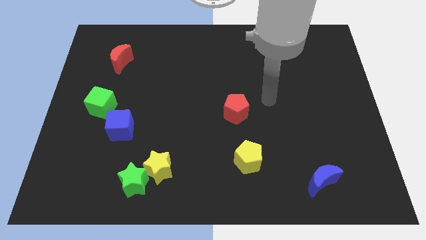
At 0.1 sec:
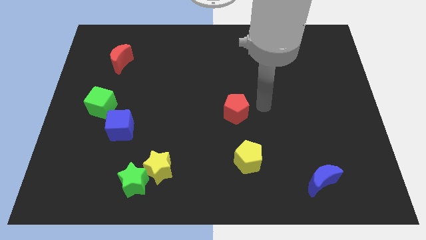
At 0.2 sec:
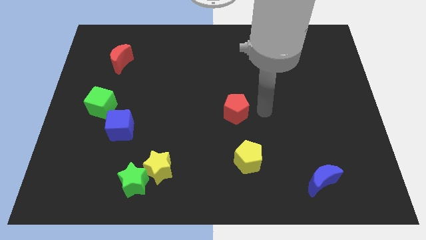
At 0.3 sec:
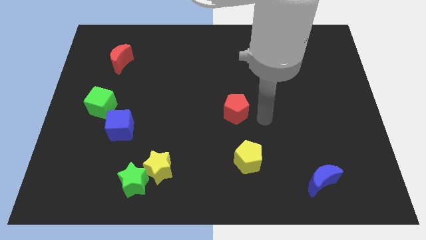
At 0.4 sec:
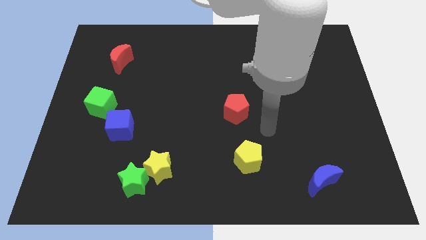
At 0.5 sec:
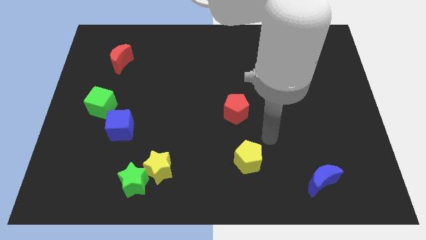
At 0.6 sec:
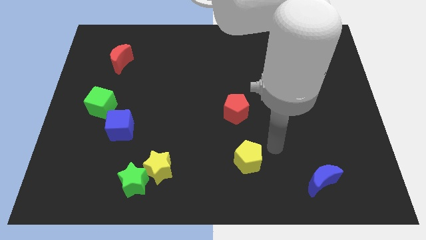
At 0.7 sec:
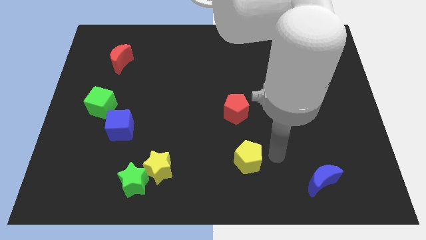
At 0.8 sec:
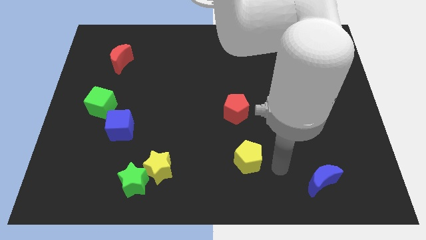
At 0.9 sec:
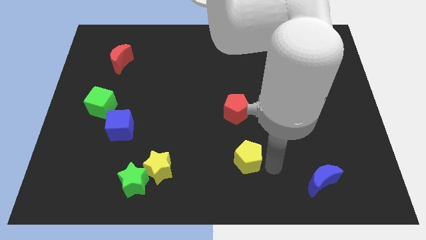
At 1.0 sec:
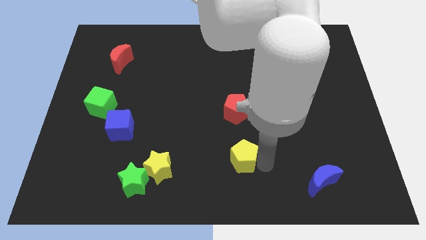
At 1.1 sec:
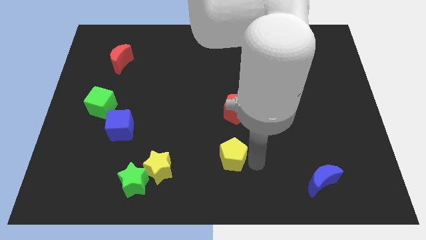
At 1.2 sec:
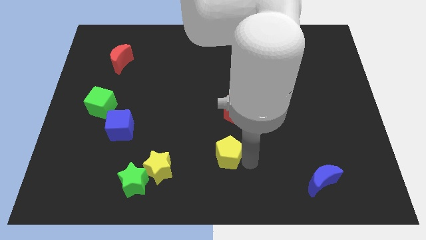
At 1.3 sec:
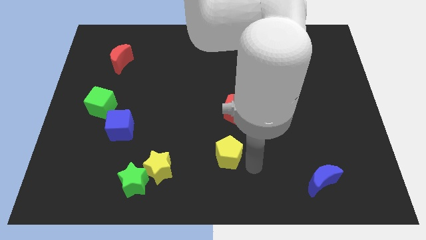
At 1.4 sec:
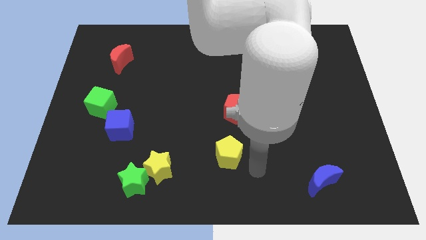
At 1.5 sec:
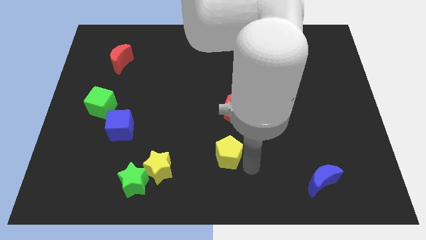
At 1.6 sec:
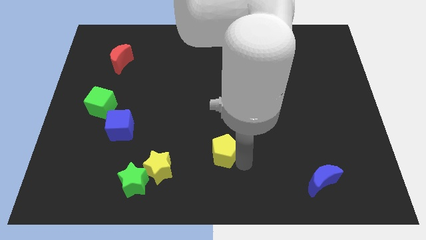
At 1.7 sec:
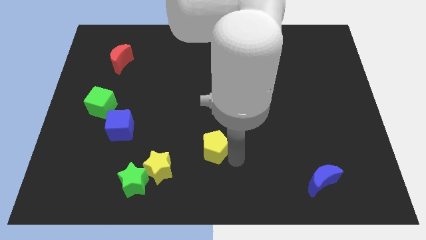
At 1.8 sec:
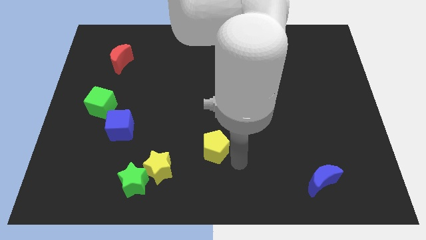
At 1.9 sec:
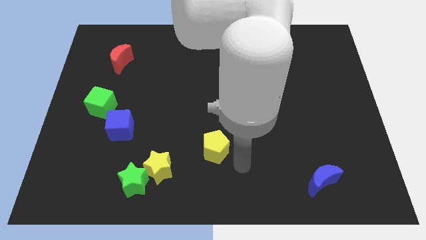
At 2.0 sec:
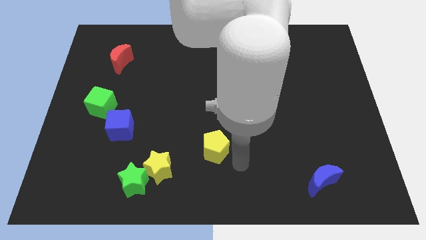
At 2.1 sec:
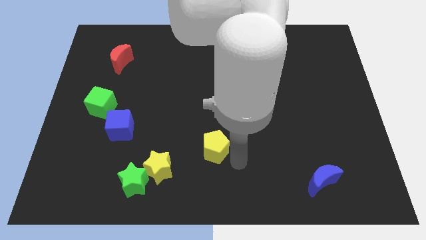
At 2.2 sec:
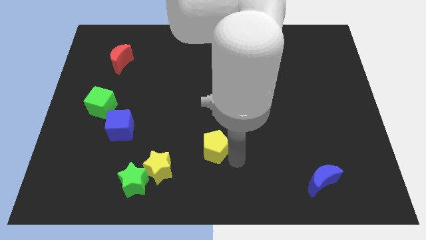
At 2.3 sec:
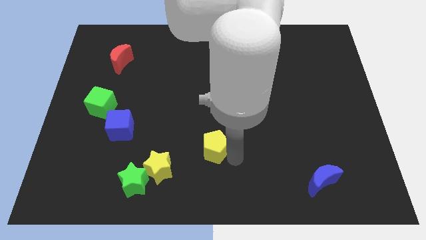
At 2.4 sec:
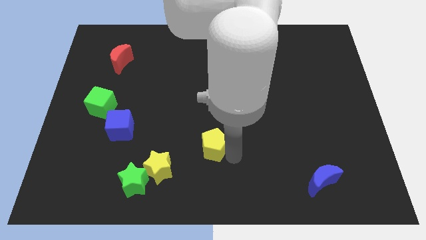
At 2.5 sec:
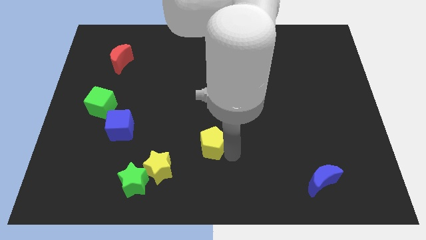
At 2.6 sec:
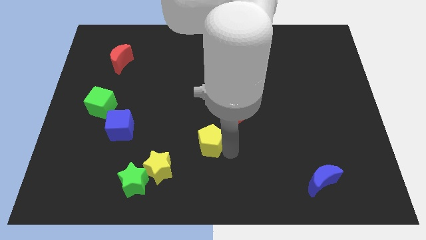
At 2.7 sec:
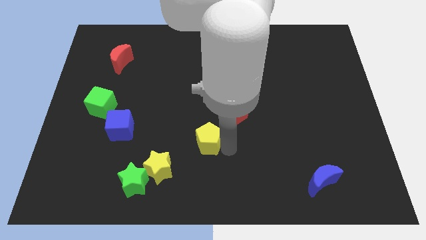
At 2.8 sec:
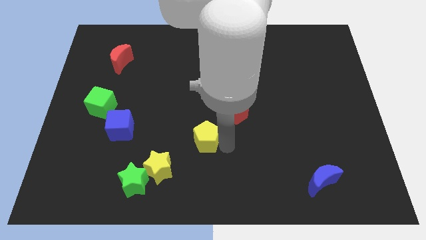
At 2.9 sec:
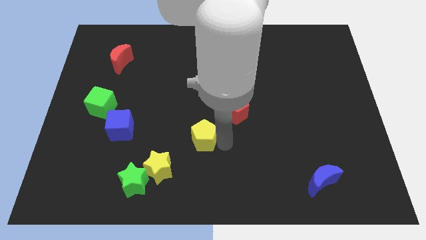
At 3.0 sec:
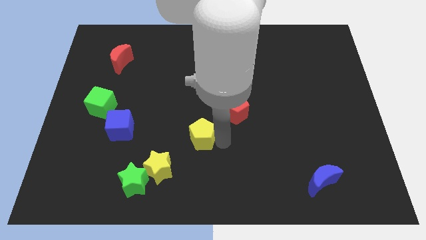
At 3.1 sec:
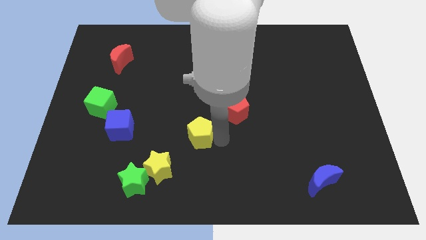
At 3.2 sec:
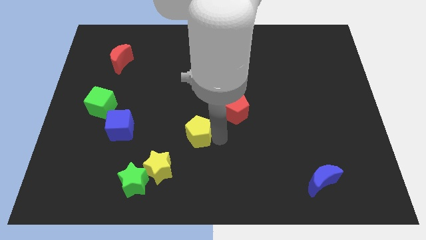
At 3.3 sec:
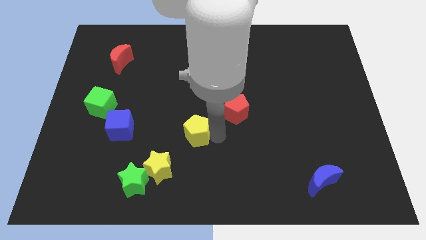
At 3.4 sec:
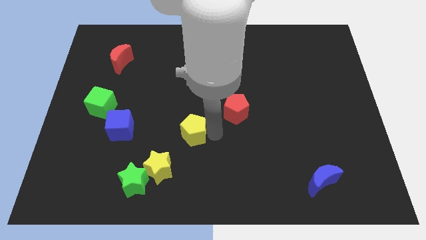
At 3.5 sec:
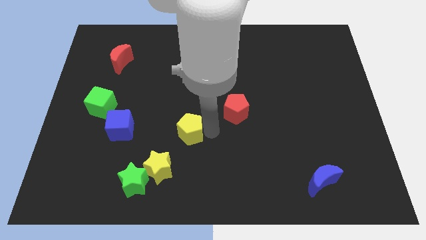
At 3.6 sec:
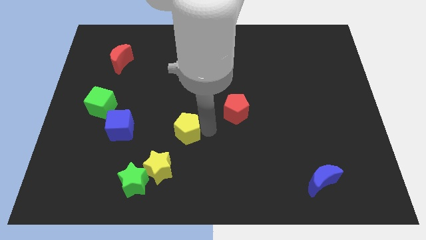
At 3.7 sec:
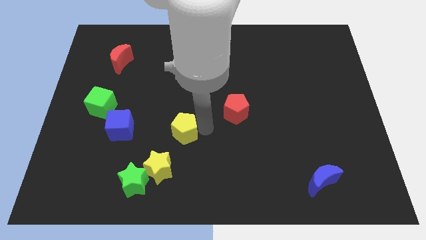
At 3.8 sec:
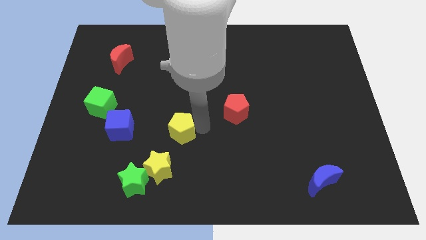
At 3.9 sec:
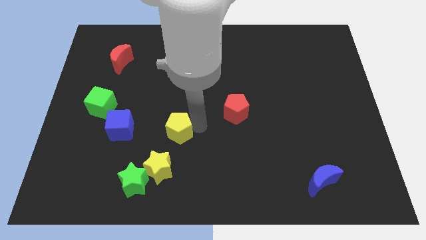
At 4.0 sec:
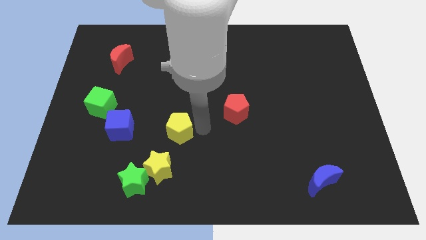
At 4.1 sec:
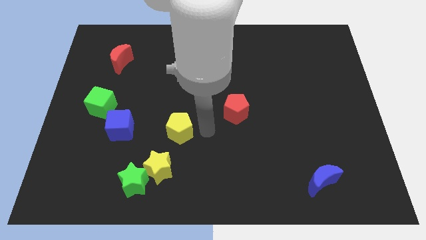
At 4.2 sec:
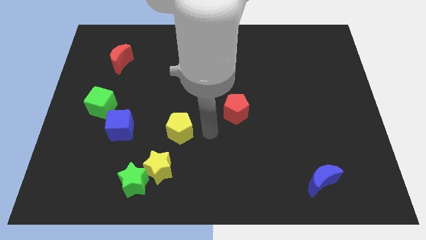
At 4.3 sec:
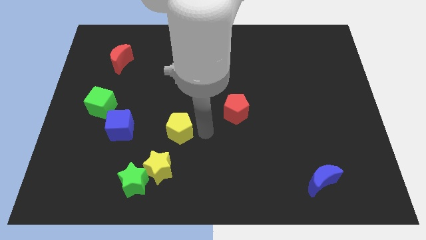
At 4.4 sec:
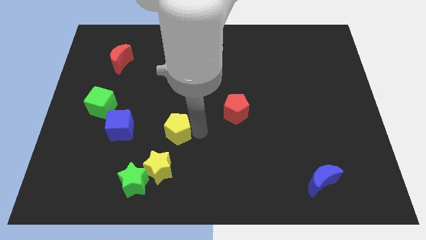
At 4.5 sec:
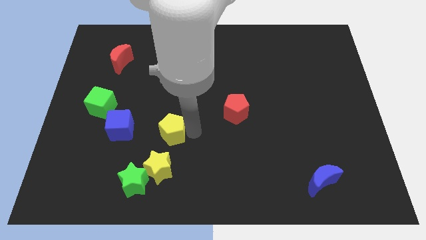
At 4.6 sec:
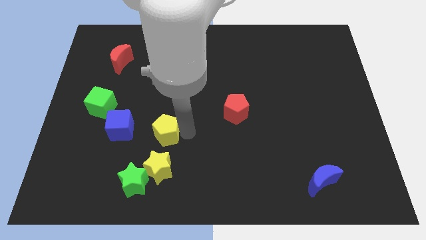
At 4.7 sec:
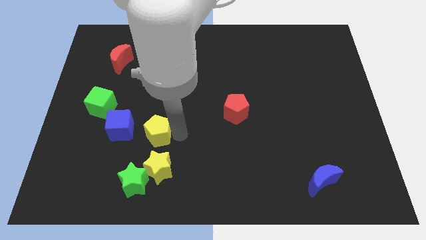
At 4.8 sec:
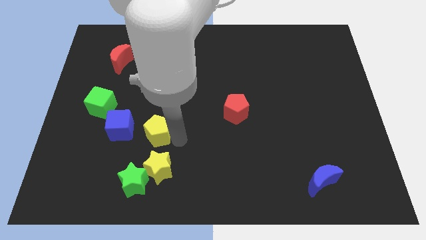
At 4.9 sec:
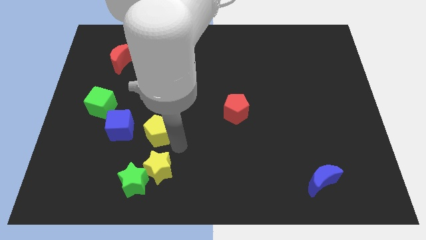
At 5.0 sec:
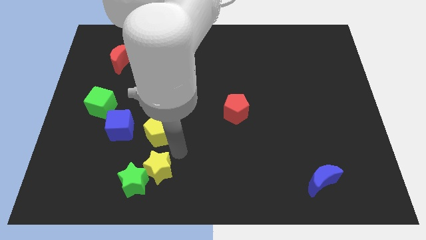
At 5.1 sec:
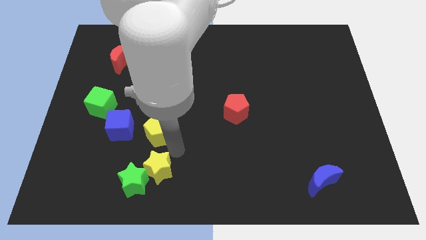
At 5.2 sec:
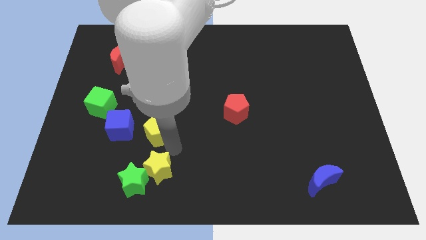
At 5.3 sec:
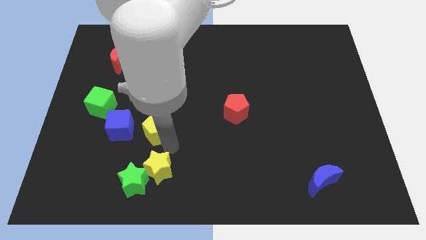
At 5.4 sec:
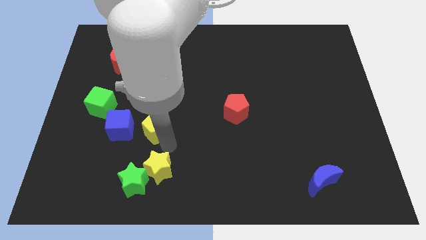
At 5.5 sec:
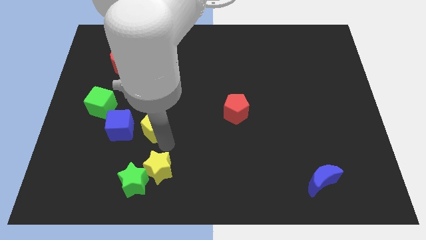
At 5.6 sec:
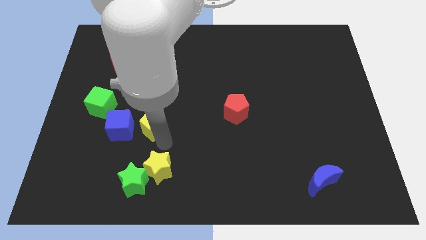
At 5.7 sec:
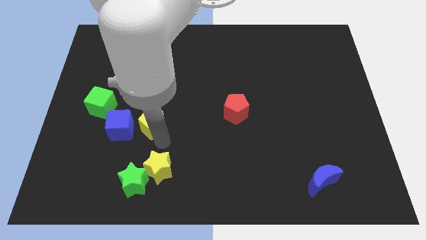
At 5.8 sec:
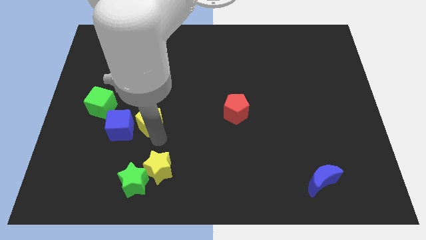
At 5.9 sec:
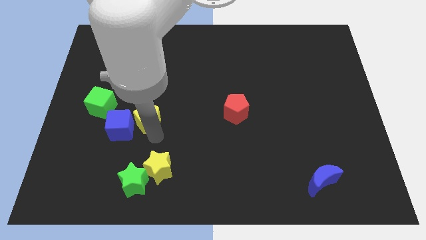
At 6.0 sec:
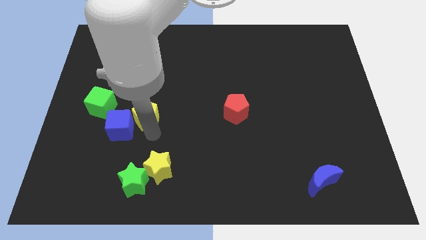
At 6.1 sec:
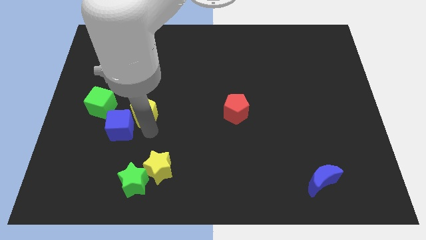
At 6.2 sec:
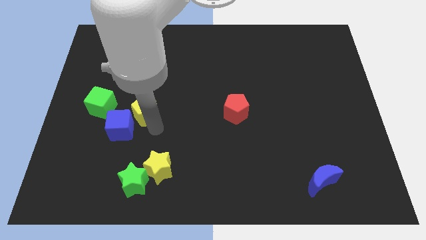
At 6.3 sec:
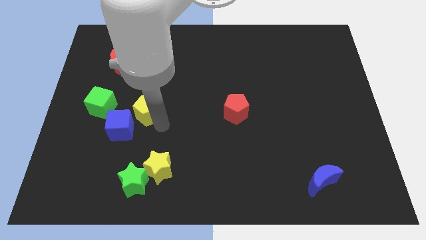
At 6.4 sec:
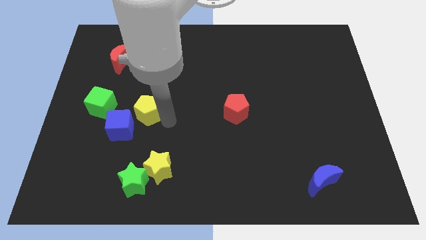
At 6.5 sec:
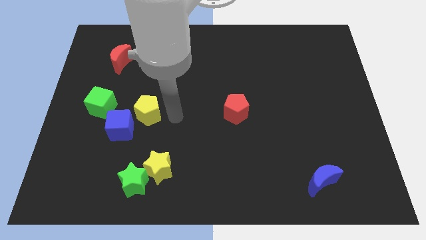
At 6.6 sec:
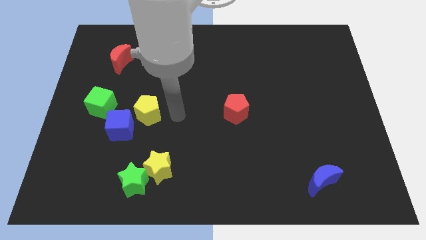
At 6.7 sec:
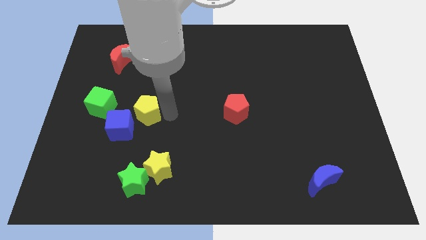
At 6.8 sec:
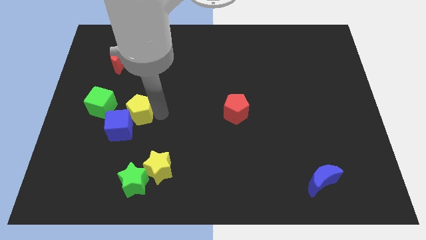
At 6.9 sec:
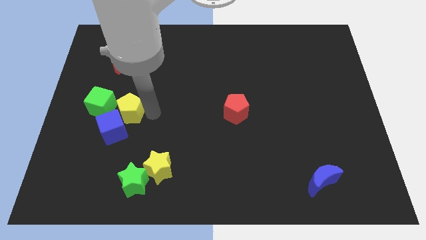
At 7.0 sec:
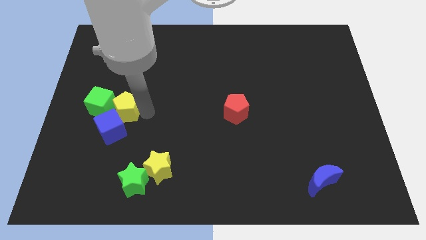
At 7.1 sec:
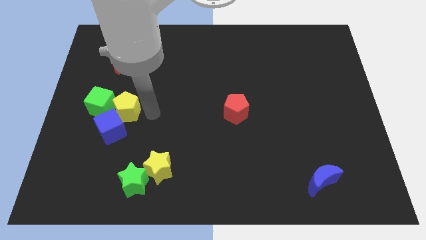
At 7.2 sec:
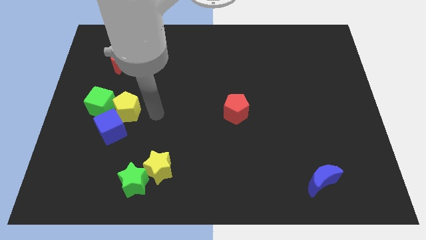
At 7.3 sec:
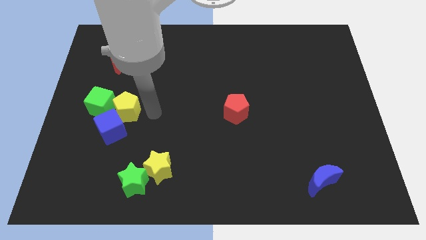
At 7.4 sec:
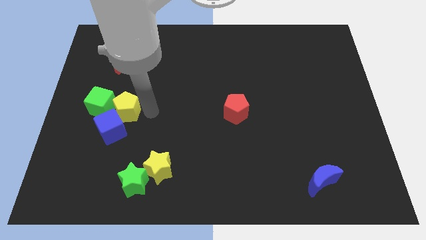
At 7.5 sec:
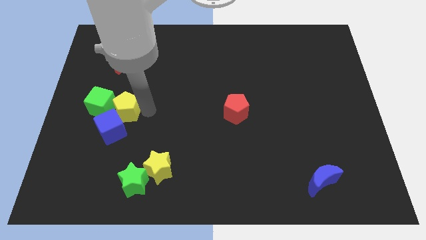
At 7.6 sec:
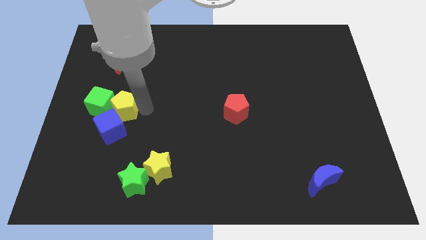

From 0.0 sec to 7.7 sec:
push the yellow pentagon to the green cube
